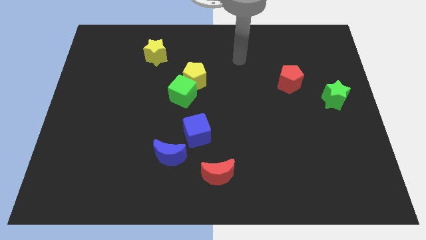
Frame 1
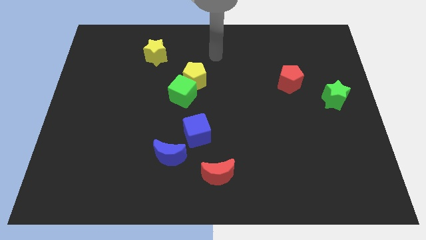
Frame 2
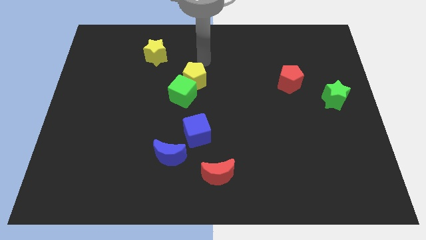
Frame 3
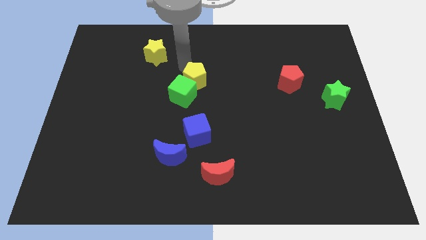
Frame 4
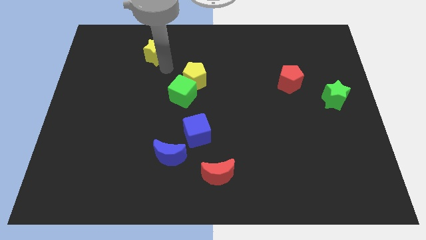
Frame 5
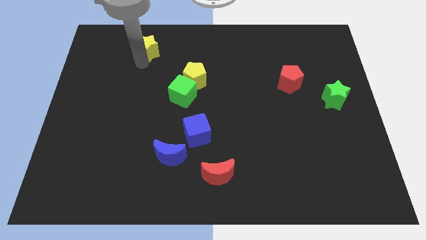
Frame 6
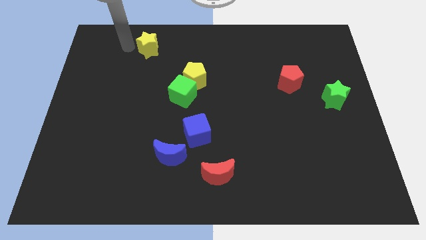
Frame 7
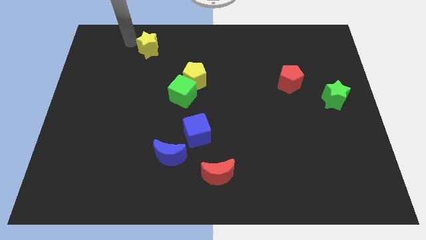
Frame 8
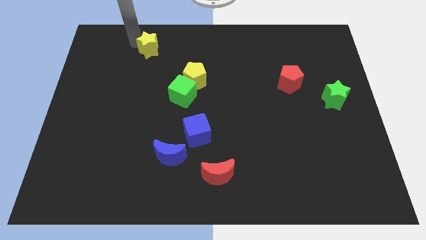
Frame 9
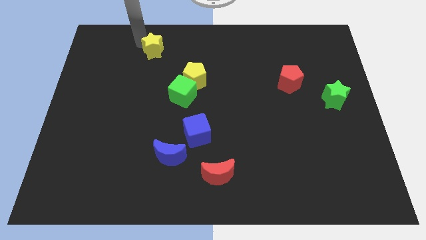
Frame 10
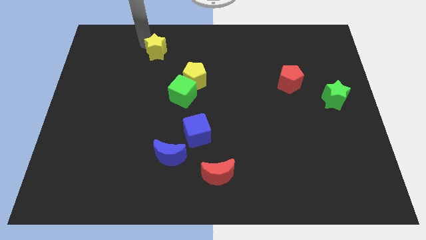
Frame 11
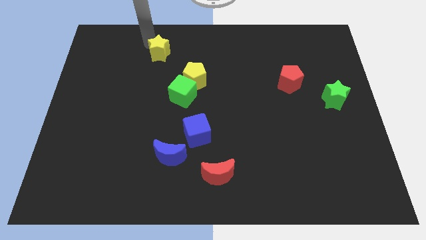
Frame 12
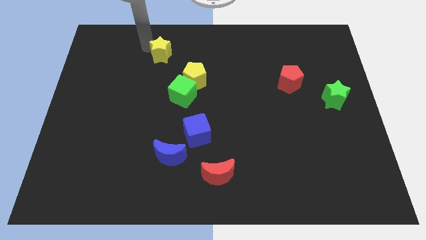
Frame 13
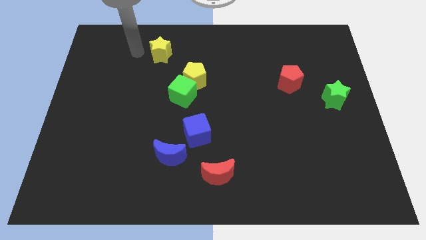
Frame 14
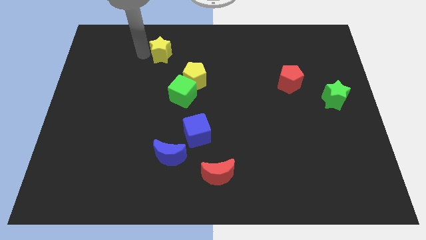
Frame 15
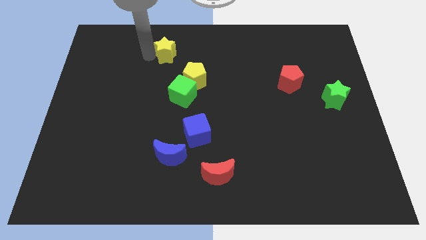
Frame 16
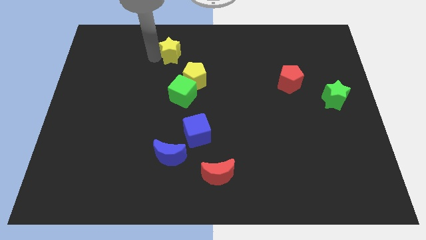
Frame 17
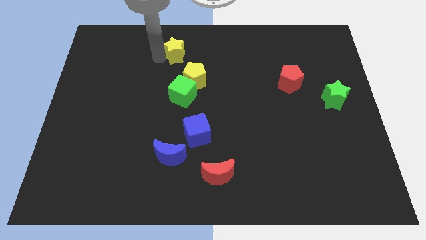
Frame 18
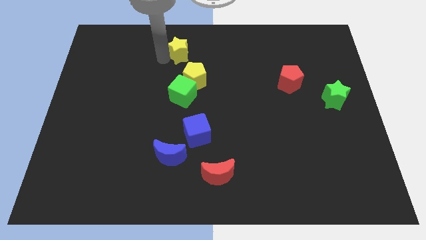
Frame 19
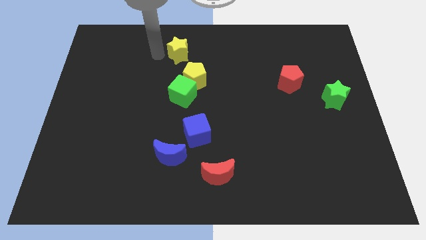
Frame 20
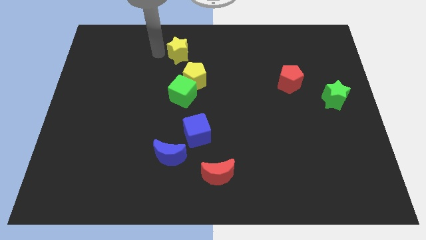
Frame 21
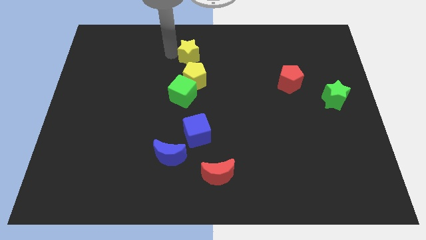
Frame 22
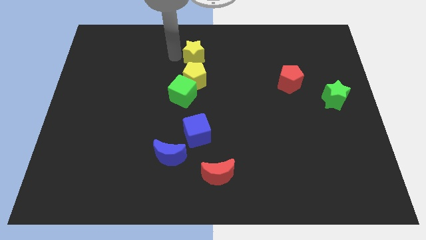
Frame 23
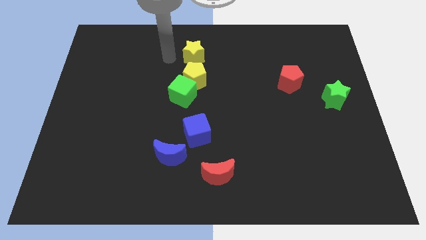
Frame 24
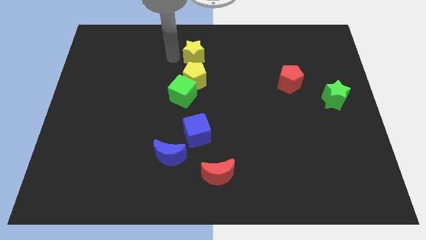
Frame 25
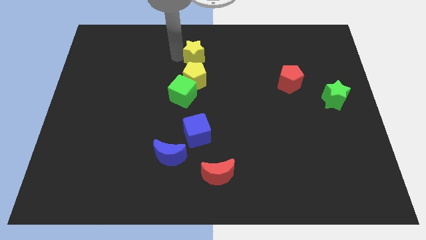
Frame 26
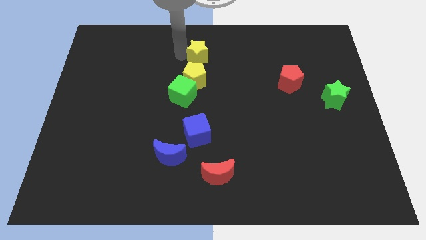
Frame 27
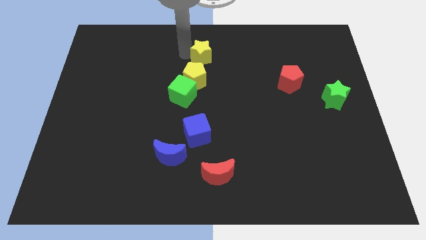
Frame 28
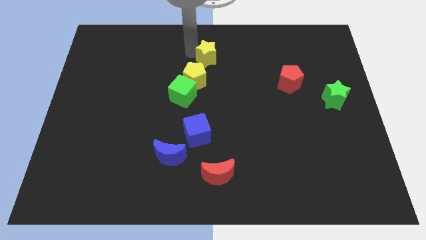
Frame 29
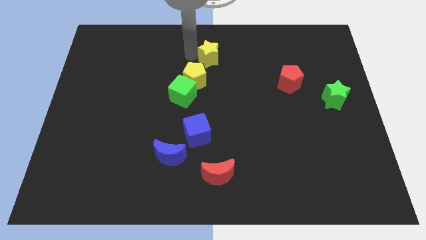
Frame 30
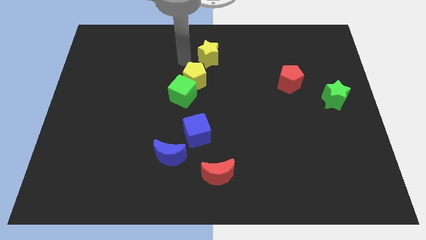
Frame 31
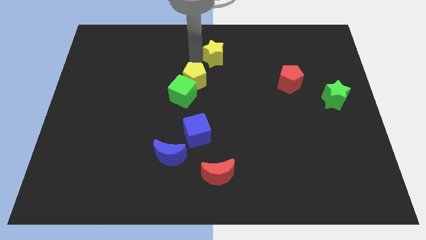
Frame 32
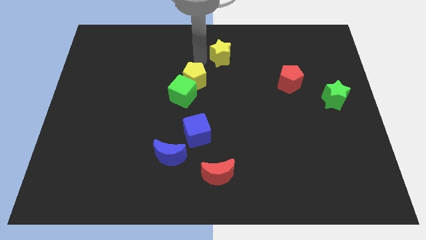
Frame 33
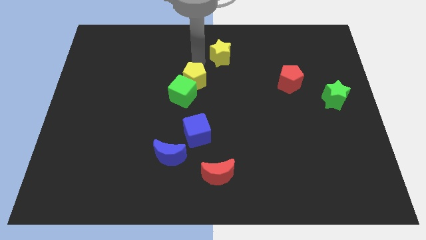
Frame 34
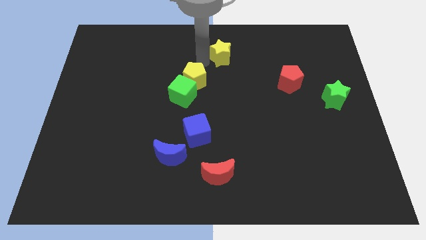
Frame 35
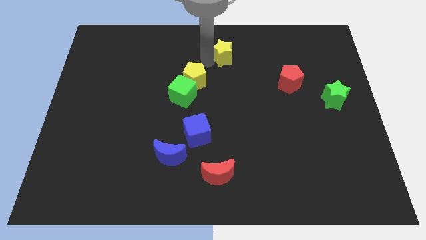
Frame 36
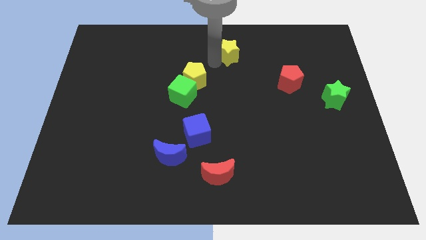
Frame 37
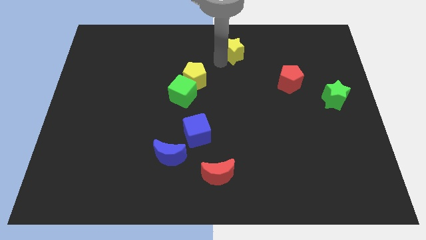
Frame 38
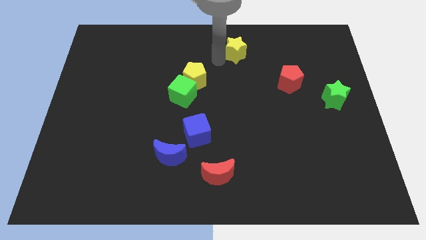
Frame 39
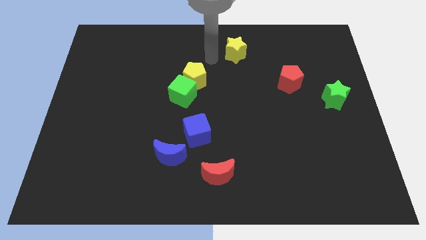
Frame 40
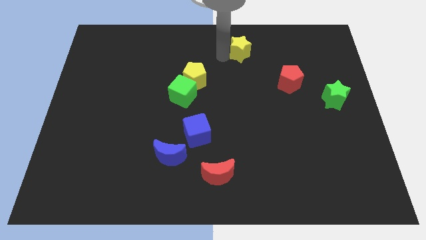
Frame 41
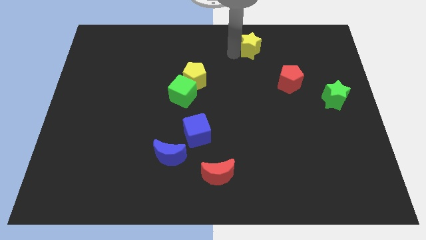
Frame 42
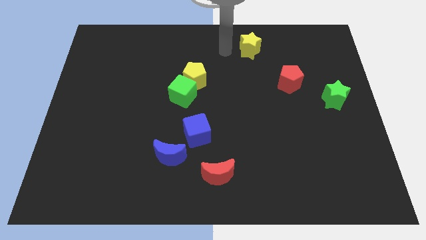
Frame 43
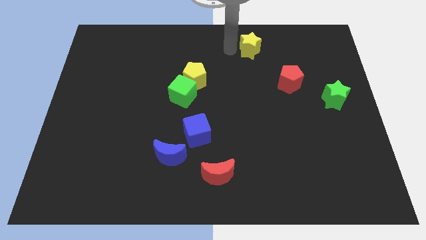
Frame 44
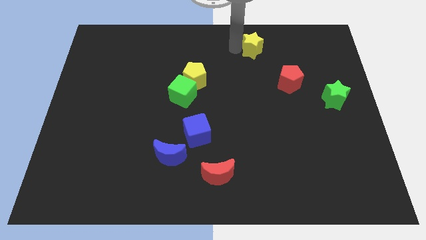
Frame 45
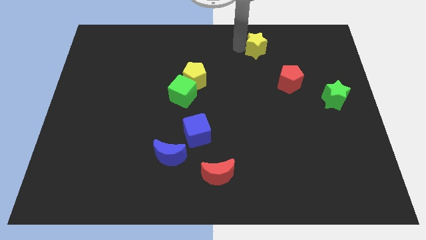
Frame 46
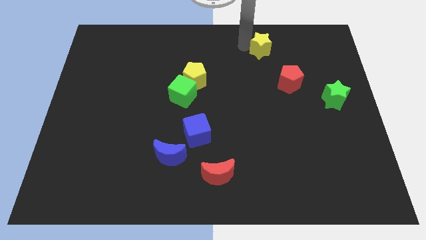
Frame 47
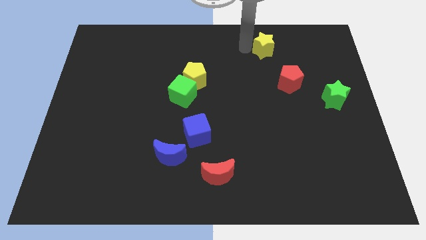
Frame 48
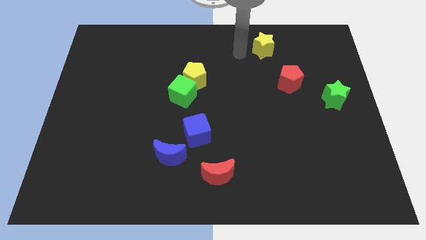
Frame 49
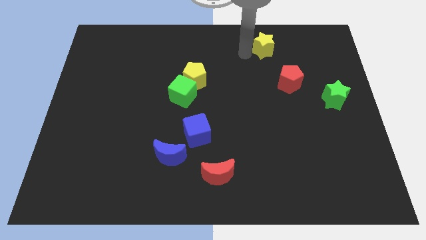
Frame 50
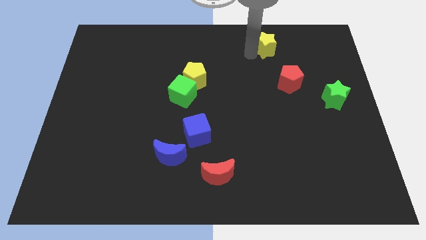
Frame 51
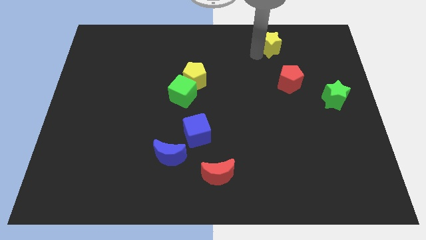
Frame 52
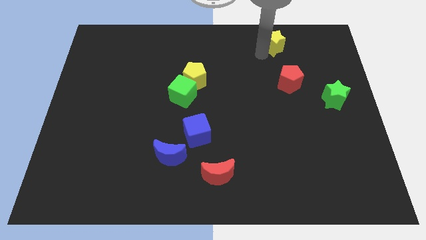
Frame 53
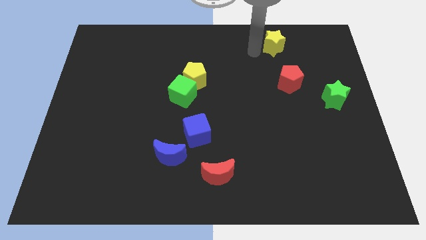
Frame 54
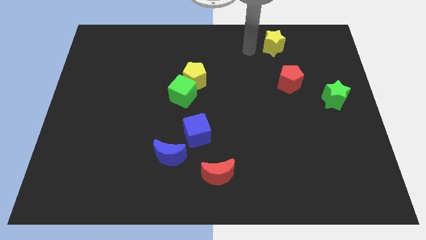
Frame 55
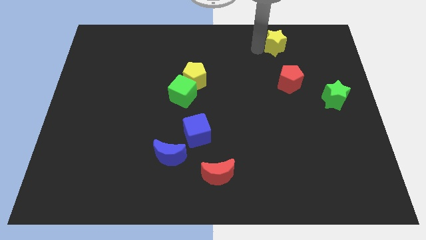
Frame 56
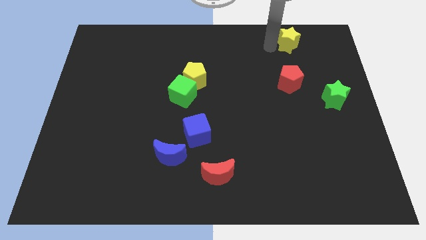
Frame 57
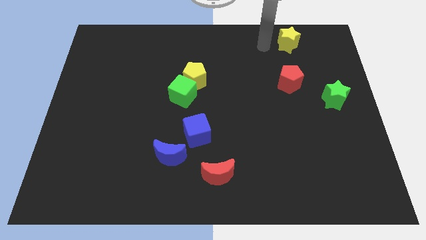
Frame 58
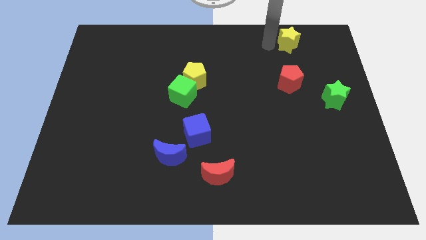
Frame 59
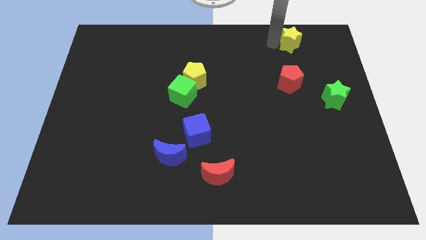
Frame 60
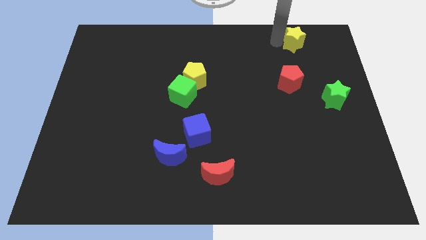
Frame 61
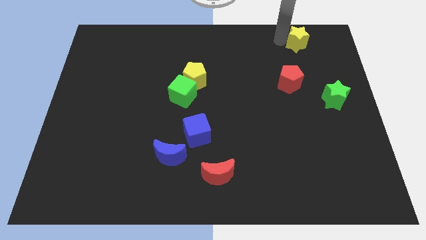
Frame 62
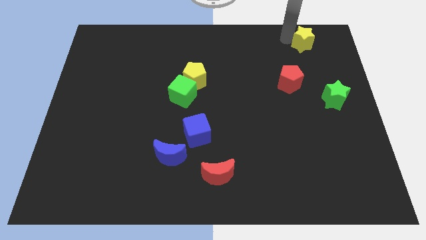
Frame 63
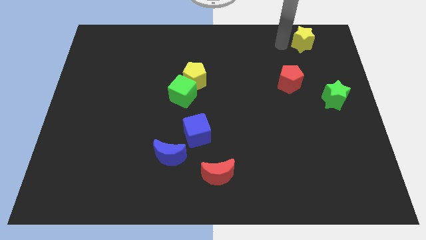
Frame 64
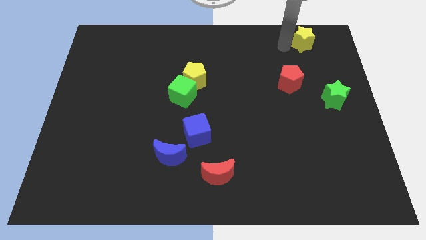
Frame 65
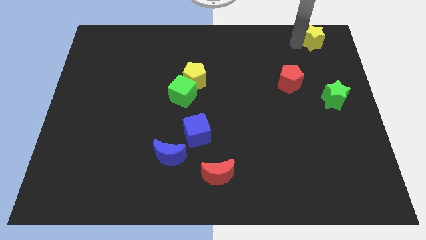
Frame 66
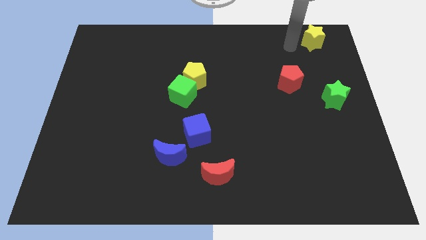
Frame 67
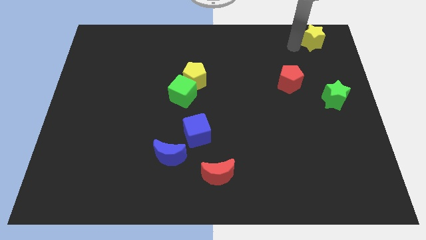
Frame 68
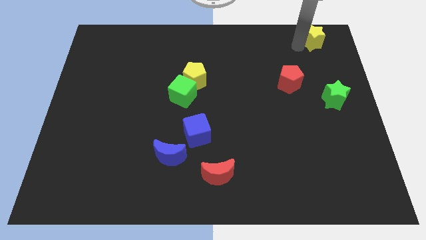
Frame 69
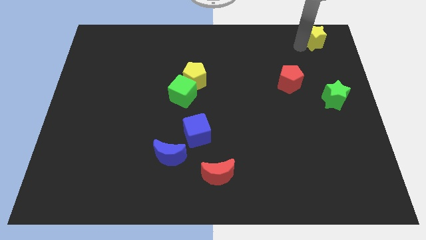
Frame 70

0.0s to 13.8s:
put the yellow star to the top right corner

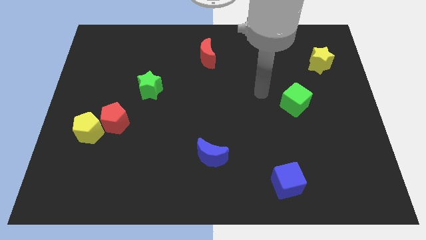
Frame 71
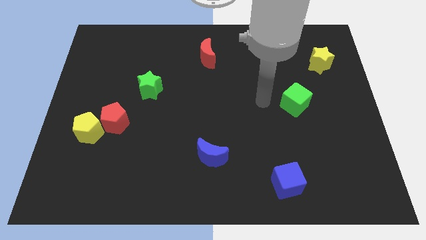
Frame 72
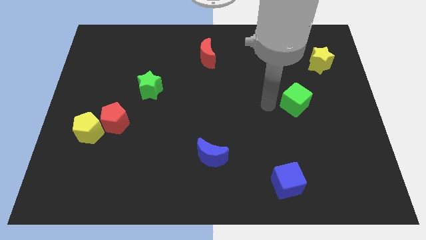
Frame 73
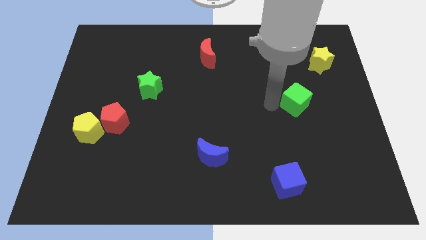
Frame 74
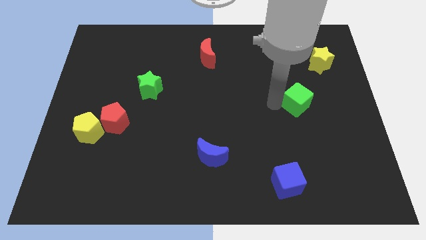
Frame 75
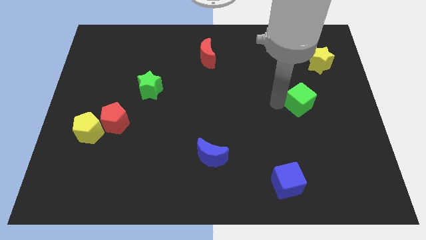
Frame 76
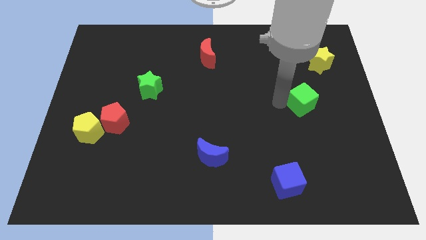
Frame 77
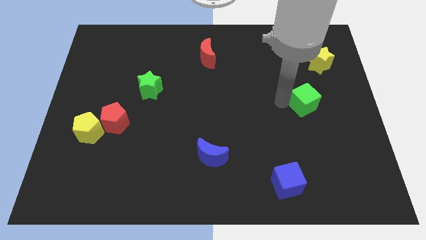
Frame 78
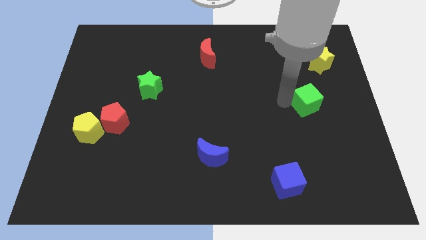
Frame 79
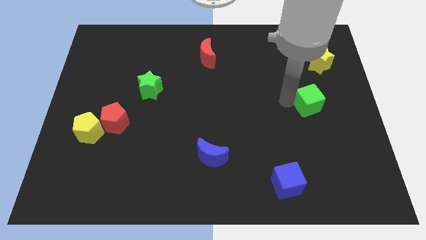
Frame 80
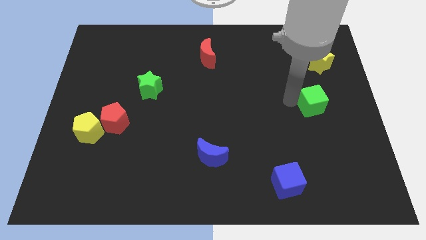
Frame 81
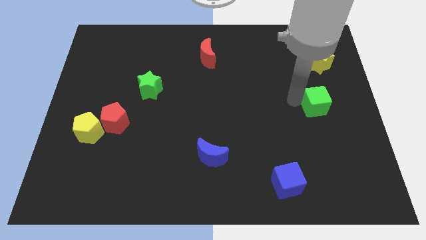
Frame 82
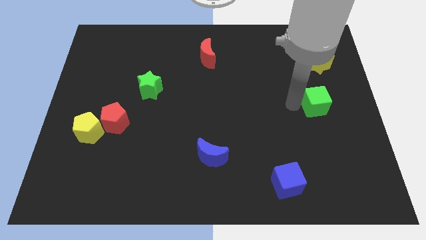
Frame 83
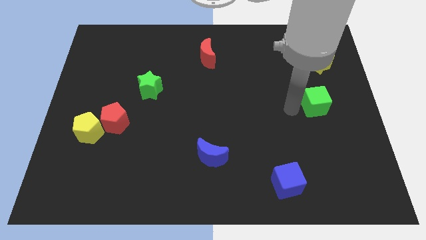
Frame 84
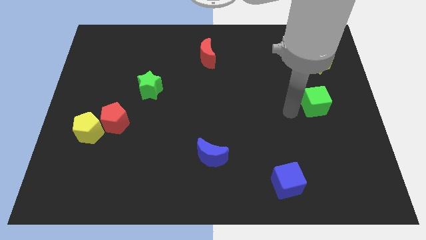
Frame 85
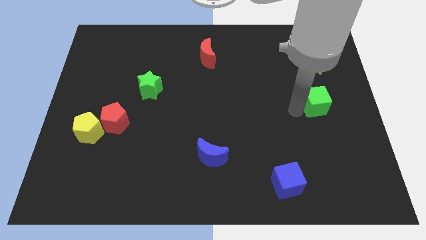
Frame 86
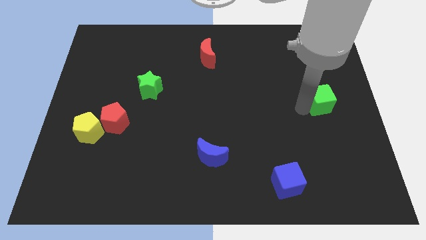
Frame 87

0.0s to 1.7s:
move the green cube to the right side of the board
